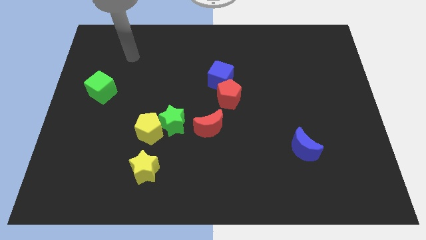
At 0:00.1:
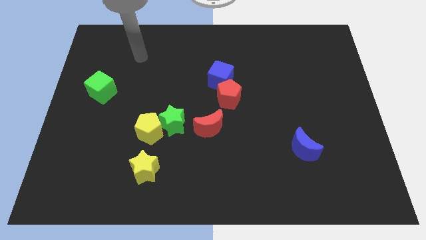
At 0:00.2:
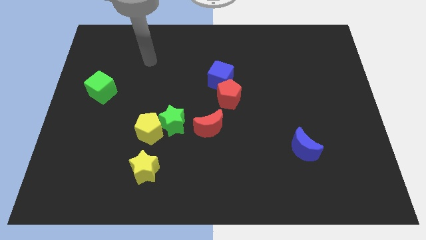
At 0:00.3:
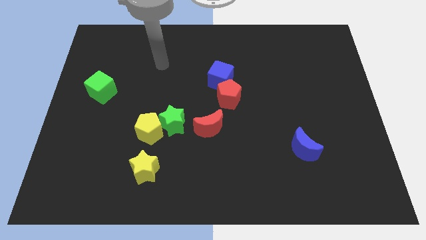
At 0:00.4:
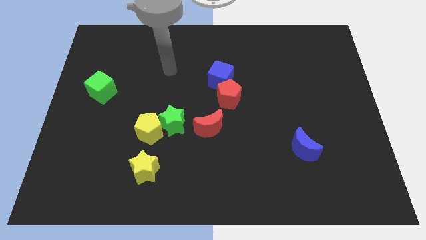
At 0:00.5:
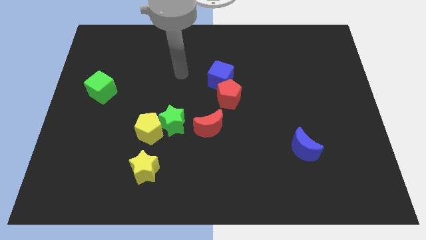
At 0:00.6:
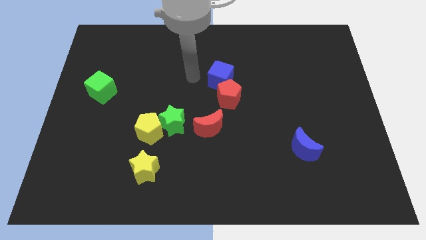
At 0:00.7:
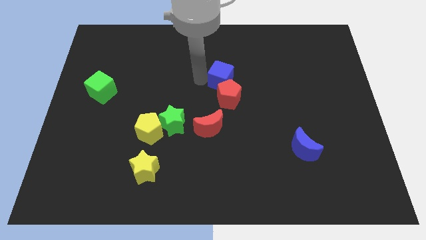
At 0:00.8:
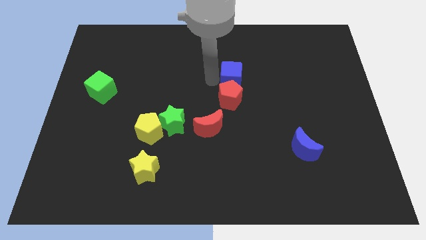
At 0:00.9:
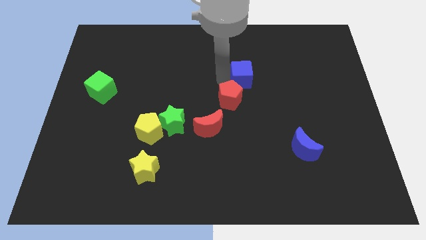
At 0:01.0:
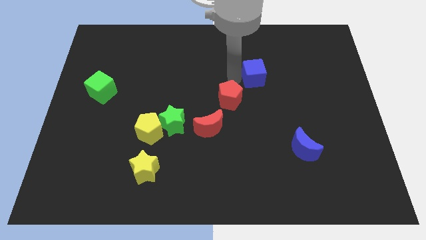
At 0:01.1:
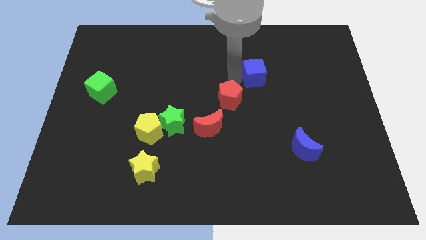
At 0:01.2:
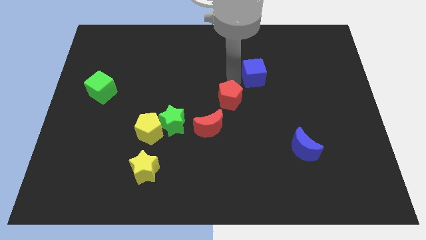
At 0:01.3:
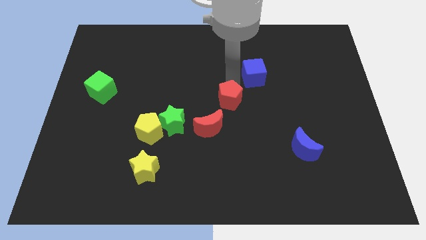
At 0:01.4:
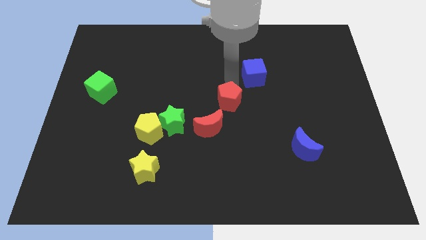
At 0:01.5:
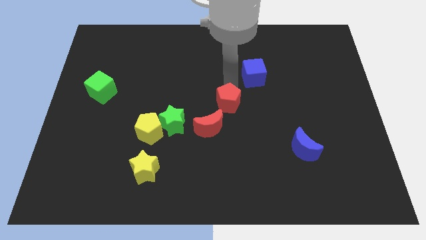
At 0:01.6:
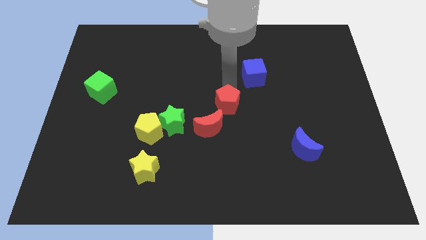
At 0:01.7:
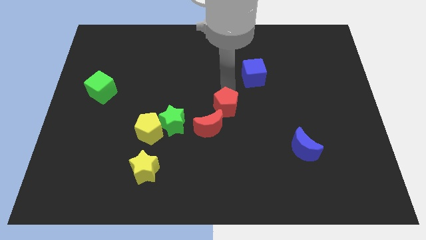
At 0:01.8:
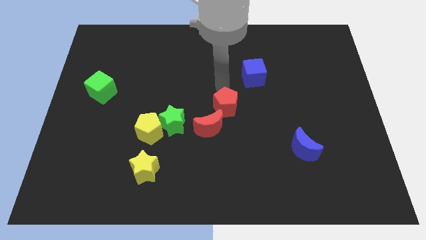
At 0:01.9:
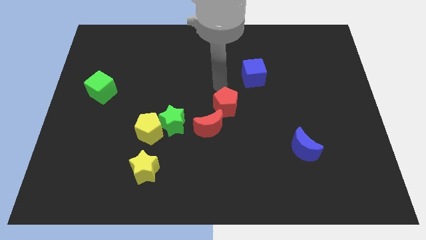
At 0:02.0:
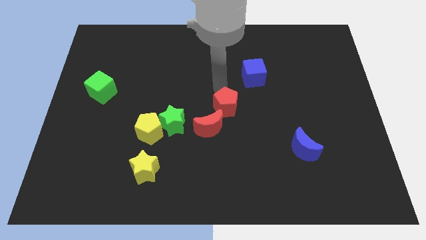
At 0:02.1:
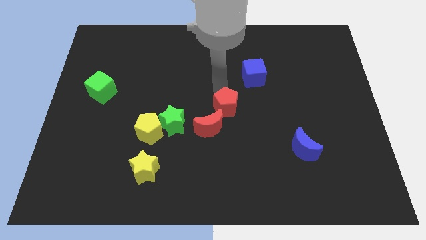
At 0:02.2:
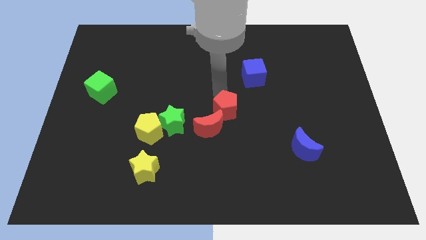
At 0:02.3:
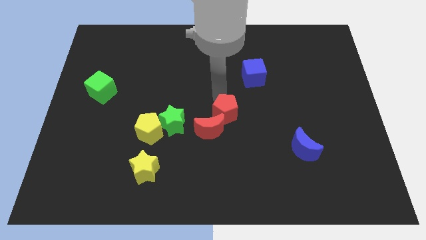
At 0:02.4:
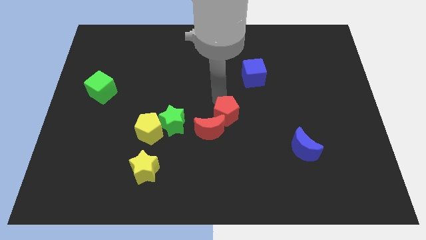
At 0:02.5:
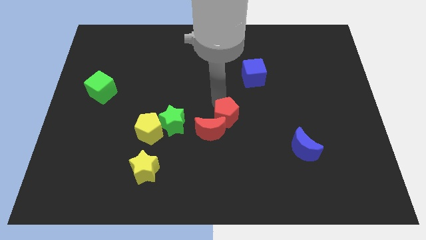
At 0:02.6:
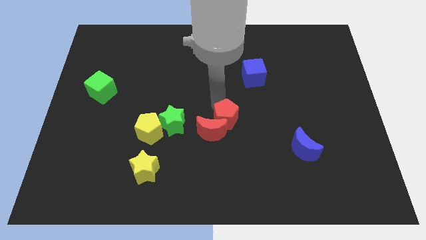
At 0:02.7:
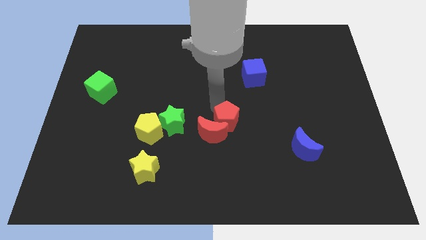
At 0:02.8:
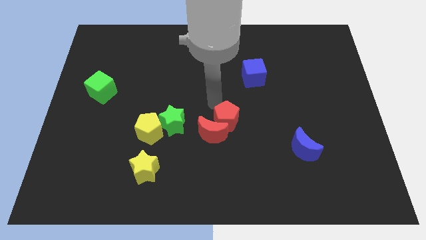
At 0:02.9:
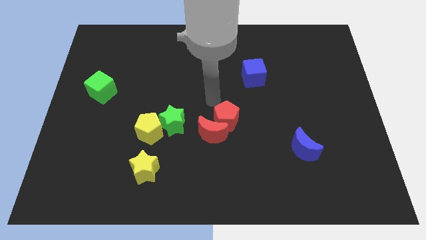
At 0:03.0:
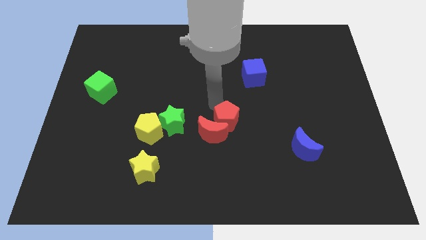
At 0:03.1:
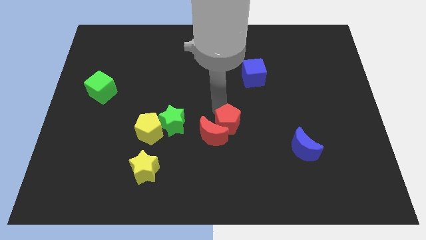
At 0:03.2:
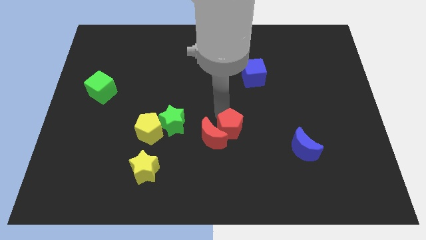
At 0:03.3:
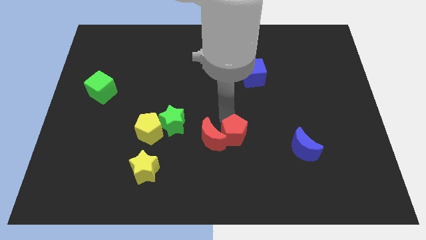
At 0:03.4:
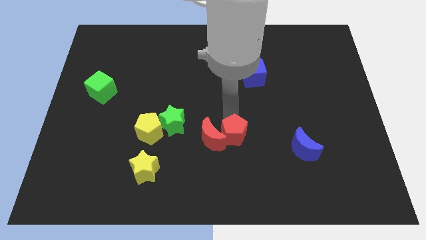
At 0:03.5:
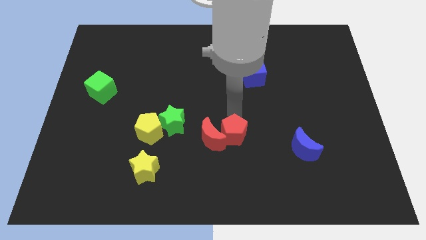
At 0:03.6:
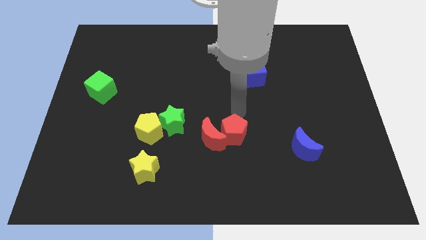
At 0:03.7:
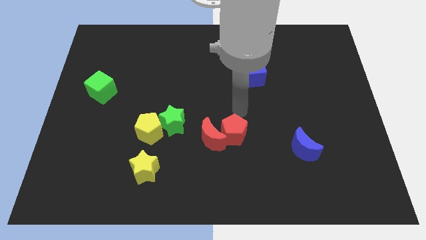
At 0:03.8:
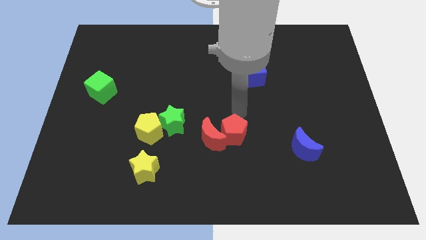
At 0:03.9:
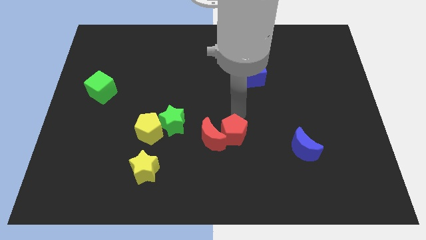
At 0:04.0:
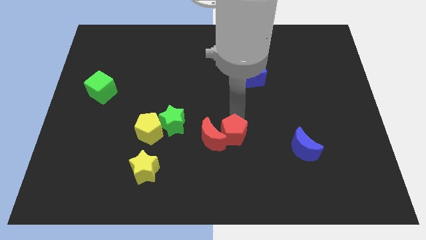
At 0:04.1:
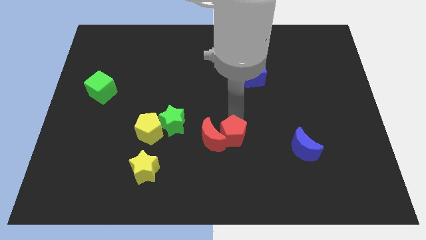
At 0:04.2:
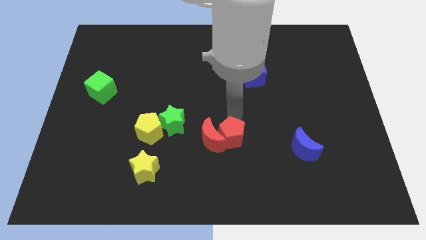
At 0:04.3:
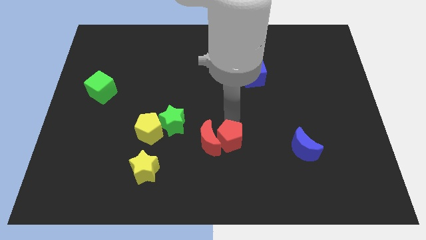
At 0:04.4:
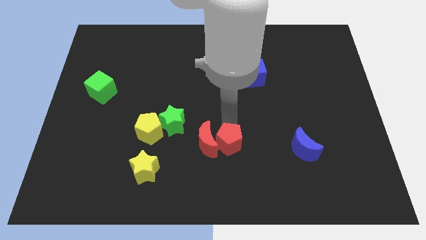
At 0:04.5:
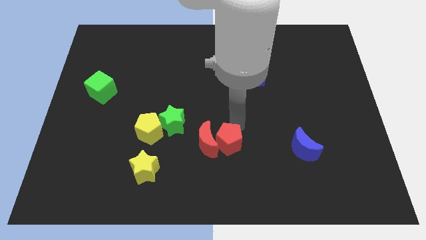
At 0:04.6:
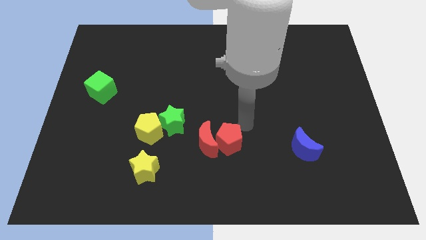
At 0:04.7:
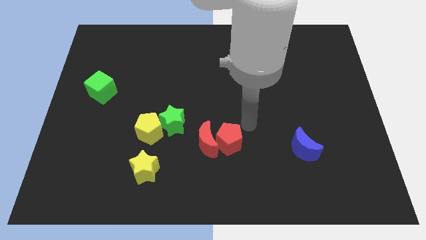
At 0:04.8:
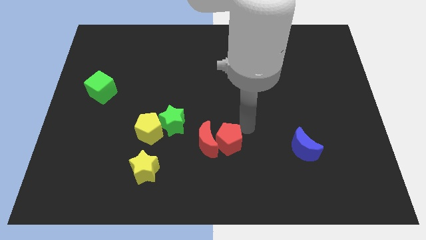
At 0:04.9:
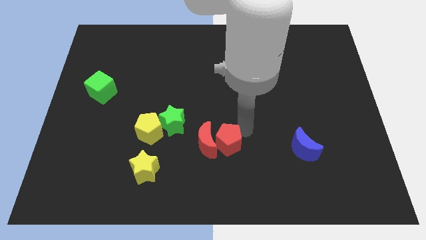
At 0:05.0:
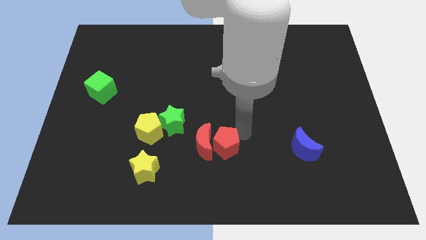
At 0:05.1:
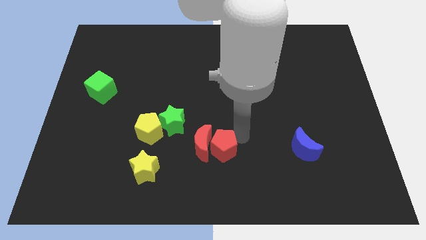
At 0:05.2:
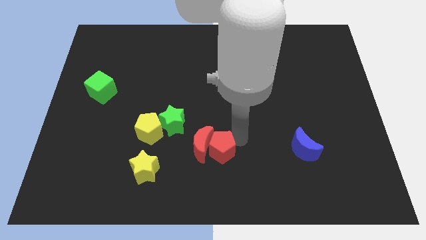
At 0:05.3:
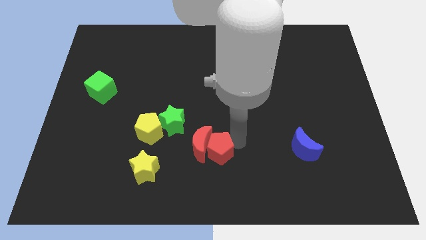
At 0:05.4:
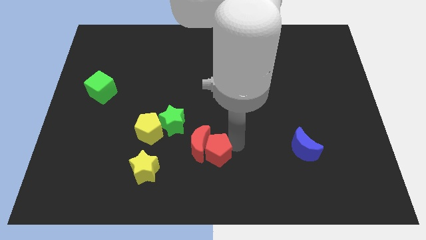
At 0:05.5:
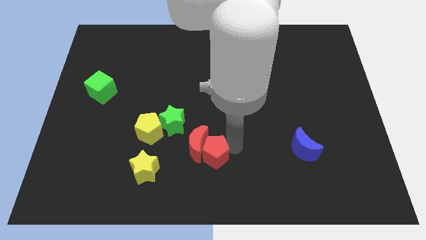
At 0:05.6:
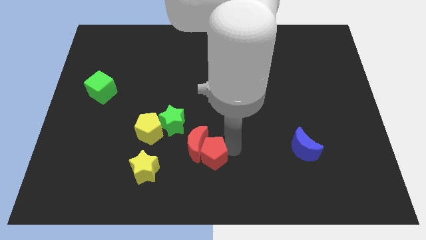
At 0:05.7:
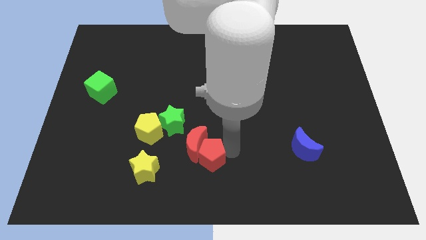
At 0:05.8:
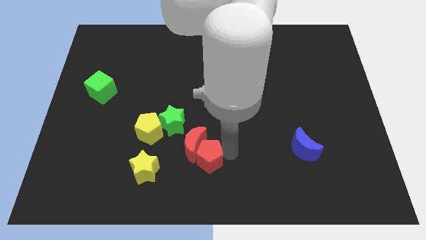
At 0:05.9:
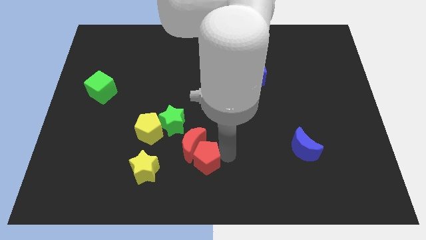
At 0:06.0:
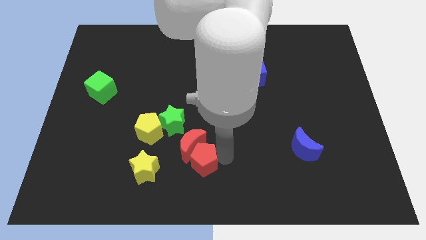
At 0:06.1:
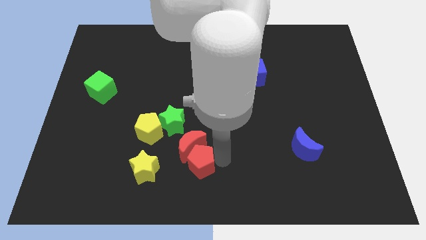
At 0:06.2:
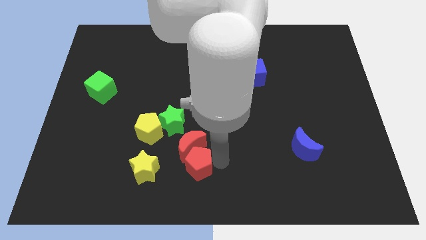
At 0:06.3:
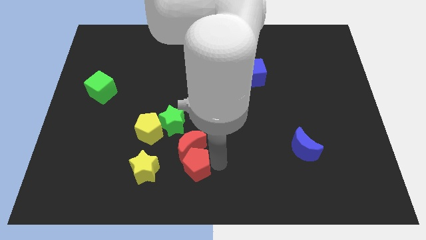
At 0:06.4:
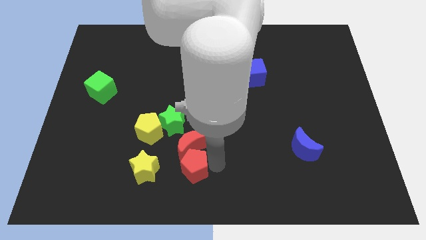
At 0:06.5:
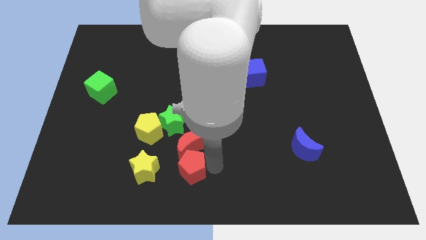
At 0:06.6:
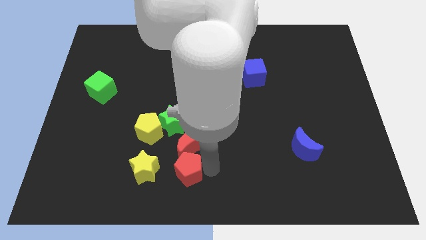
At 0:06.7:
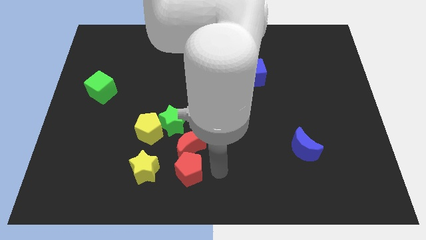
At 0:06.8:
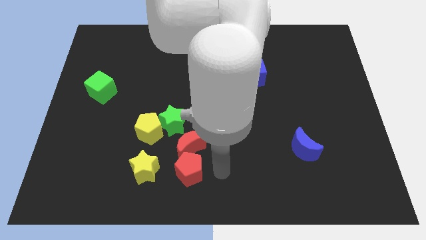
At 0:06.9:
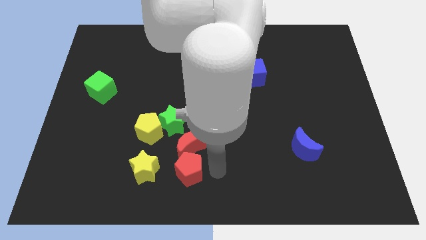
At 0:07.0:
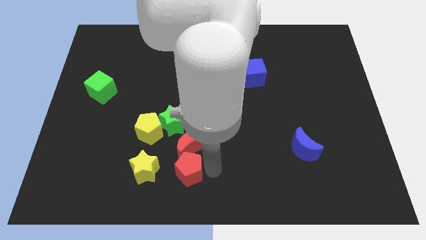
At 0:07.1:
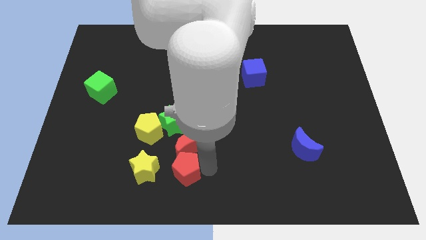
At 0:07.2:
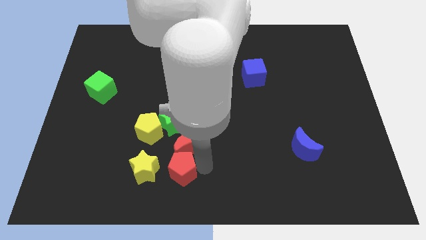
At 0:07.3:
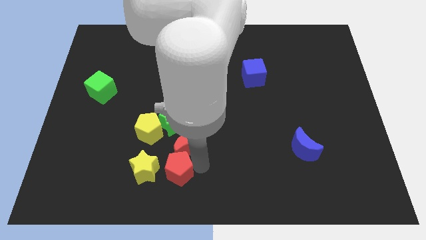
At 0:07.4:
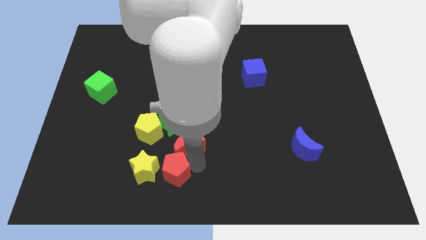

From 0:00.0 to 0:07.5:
push the red pentagon towards the yellow star

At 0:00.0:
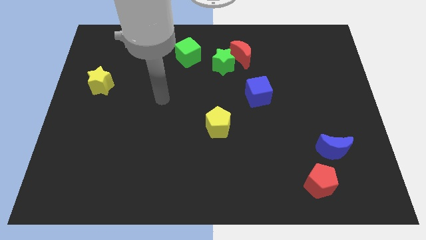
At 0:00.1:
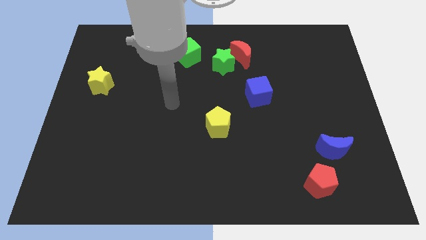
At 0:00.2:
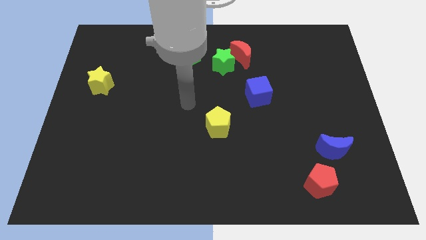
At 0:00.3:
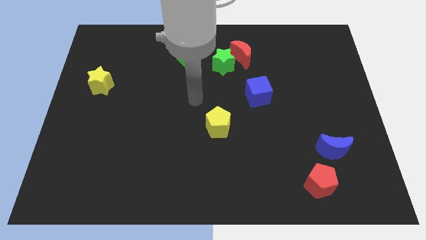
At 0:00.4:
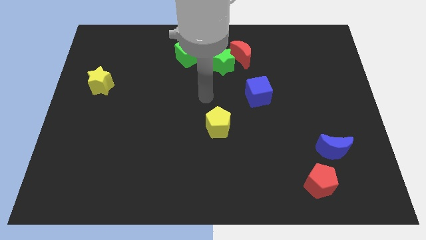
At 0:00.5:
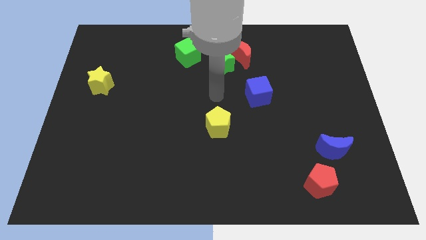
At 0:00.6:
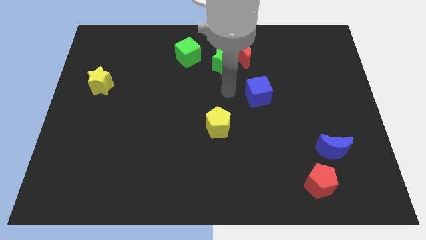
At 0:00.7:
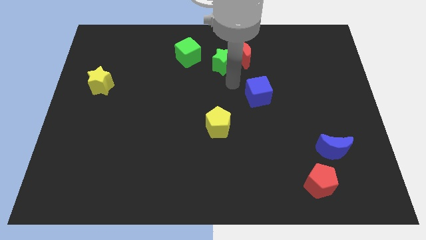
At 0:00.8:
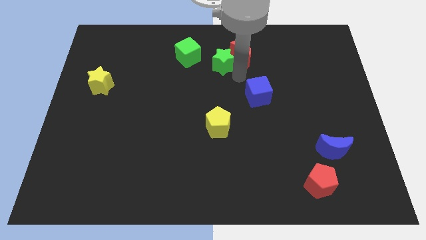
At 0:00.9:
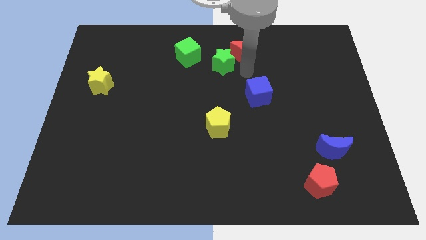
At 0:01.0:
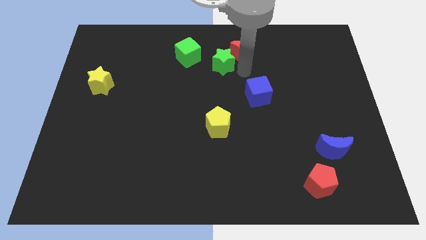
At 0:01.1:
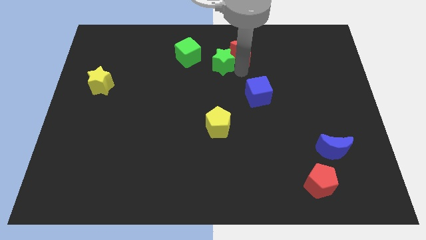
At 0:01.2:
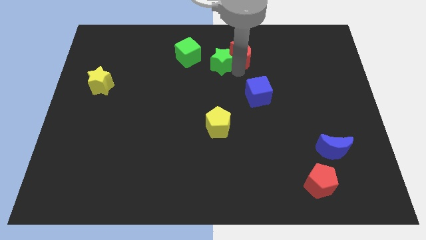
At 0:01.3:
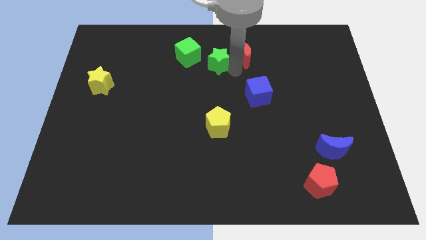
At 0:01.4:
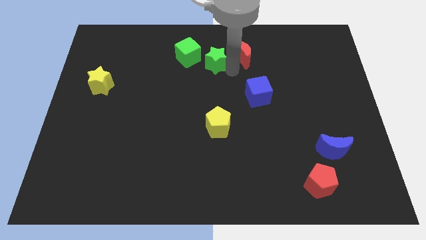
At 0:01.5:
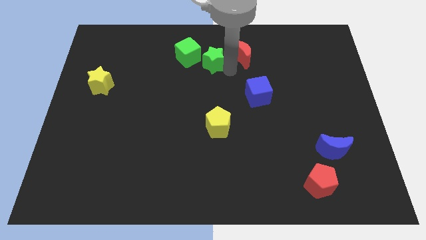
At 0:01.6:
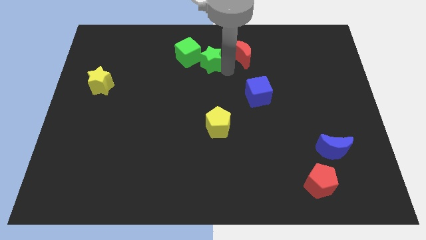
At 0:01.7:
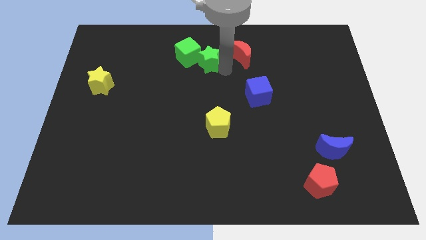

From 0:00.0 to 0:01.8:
move the green star to the green cube
